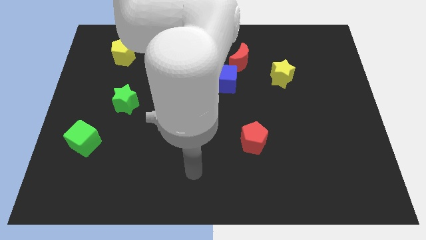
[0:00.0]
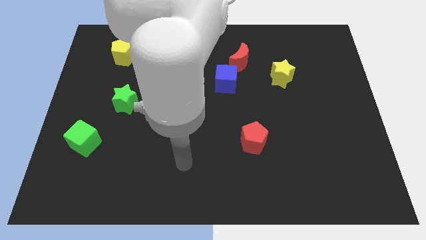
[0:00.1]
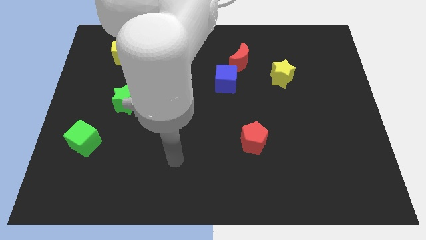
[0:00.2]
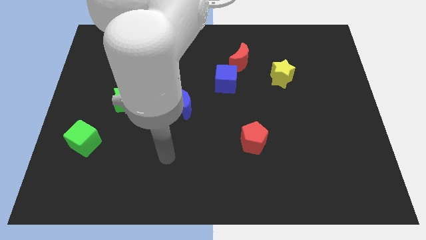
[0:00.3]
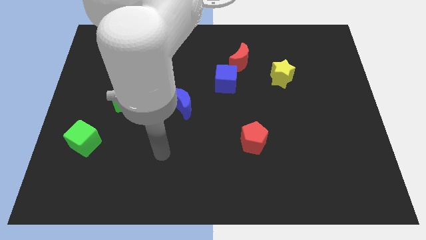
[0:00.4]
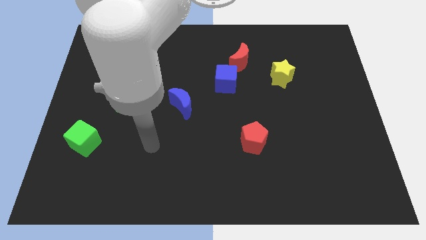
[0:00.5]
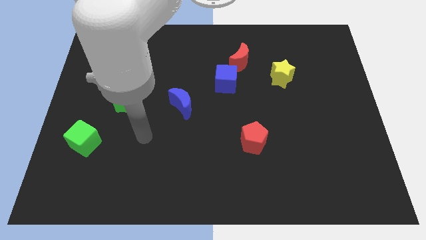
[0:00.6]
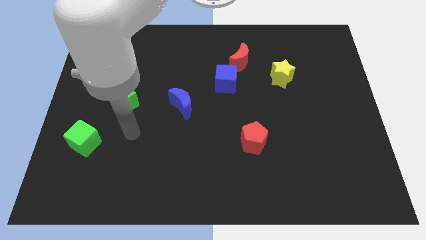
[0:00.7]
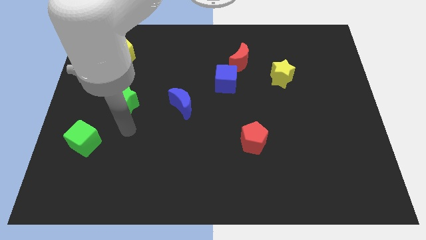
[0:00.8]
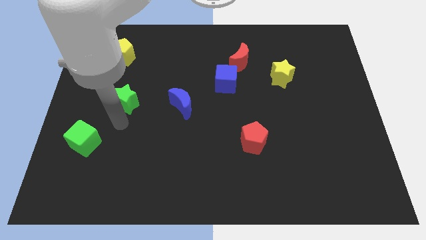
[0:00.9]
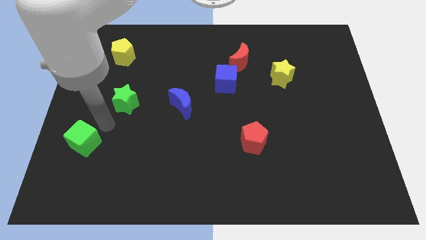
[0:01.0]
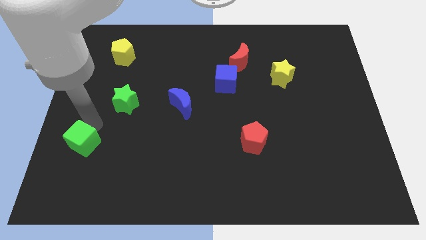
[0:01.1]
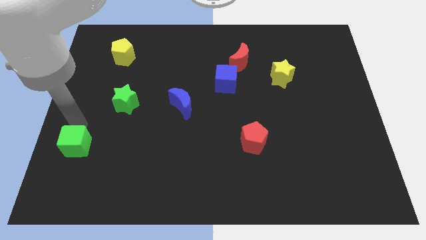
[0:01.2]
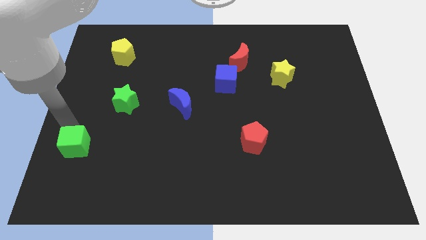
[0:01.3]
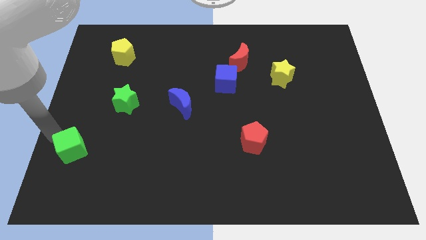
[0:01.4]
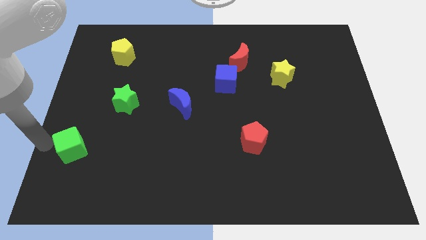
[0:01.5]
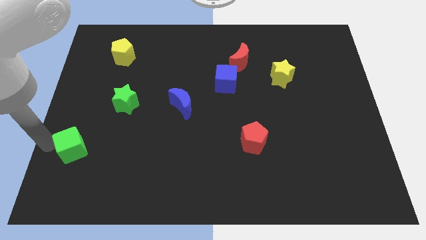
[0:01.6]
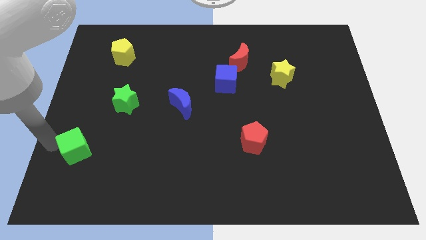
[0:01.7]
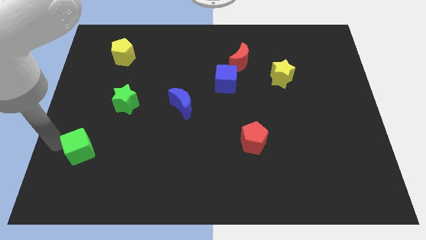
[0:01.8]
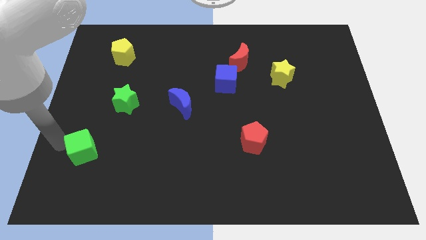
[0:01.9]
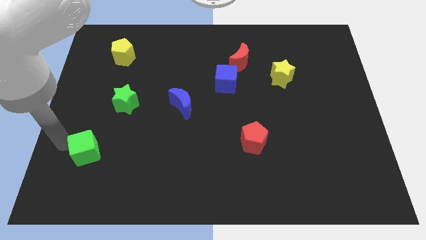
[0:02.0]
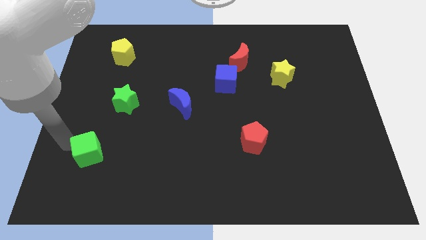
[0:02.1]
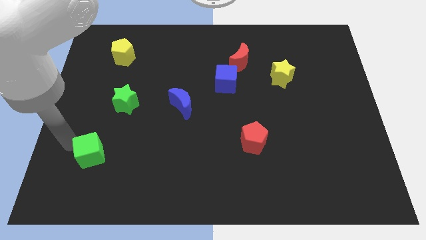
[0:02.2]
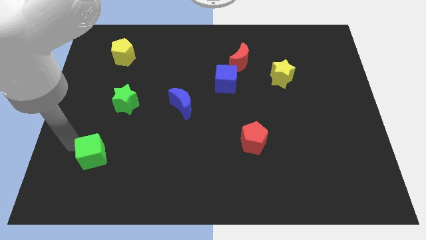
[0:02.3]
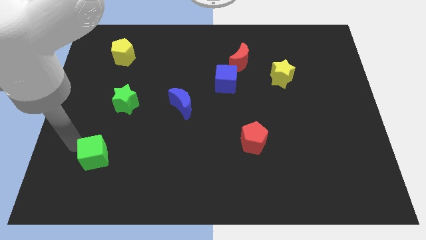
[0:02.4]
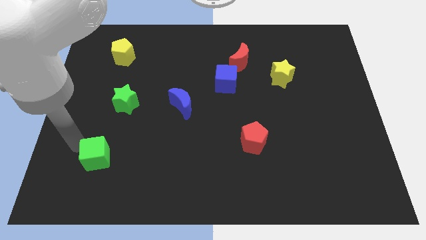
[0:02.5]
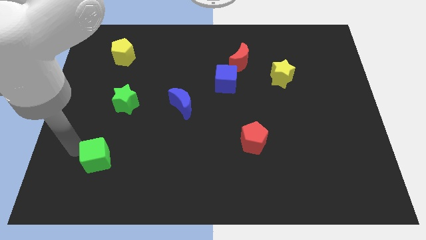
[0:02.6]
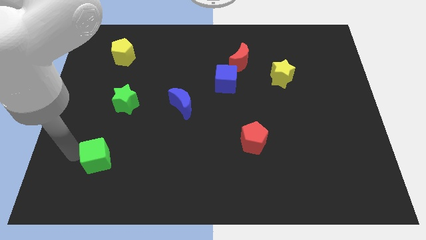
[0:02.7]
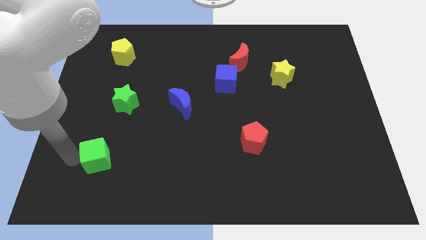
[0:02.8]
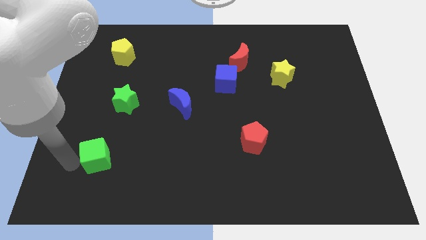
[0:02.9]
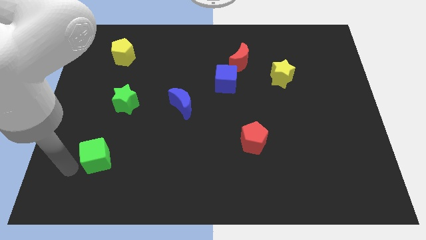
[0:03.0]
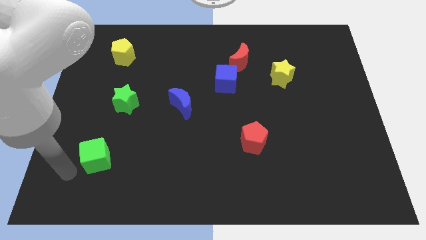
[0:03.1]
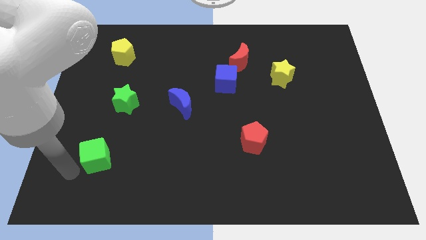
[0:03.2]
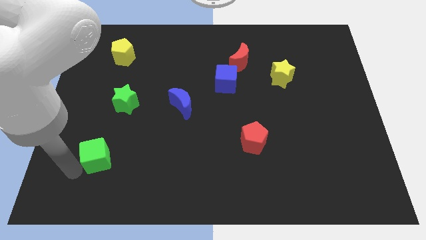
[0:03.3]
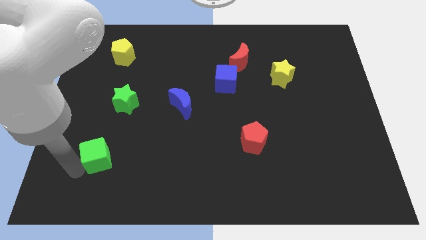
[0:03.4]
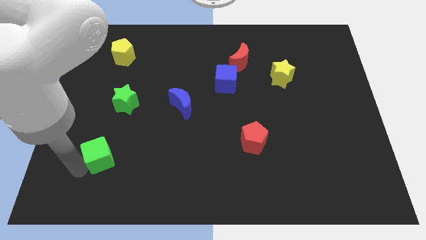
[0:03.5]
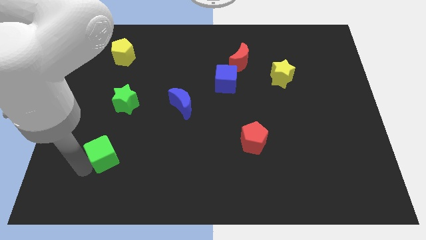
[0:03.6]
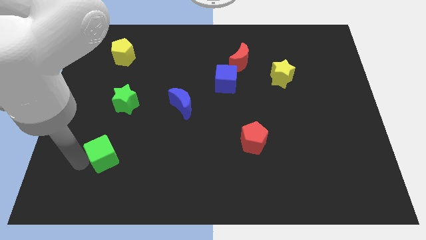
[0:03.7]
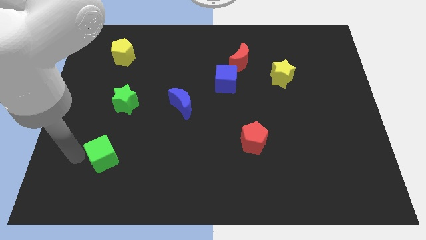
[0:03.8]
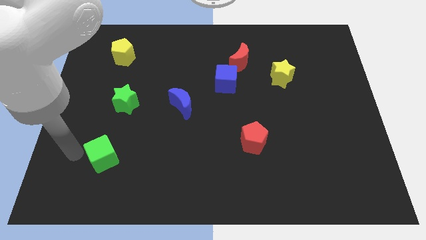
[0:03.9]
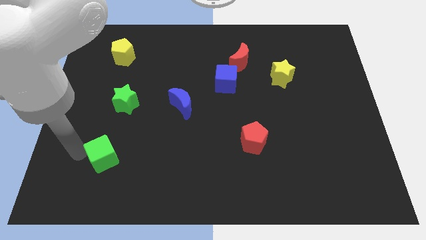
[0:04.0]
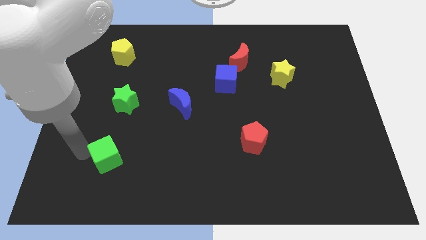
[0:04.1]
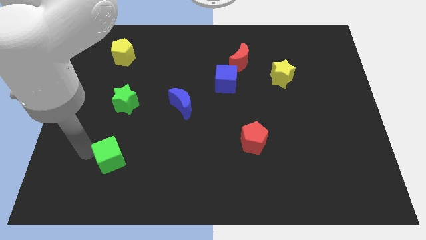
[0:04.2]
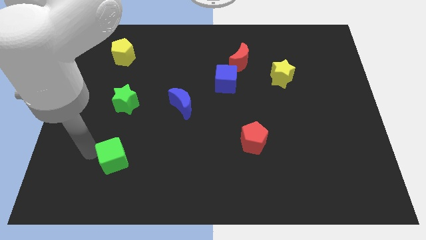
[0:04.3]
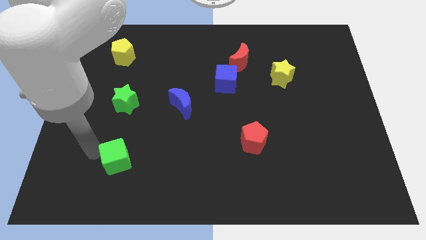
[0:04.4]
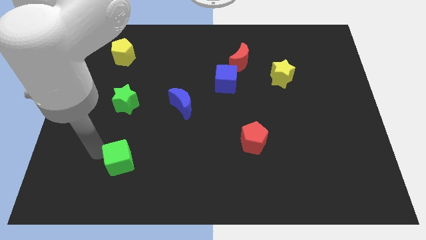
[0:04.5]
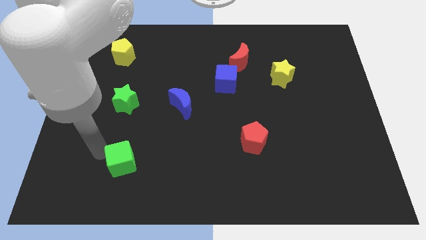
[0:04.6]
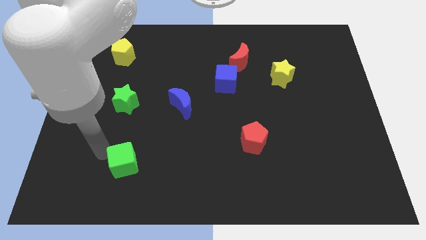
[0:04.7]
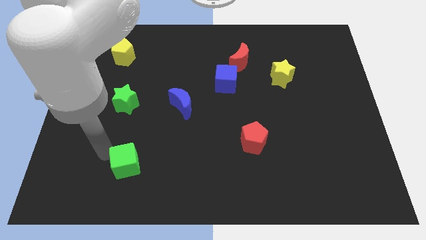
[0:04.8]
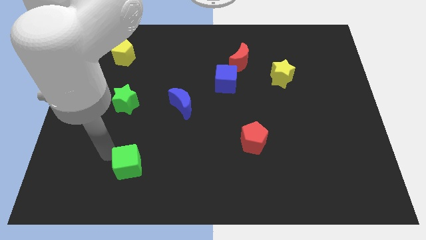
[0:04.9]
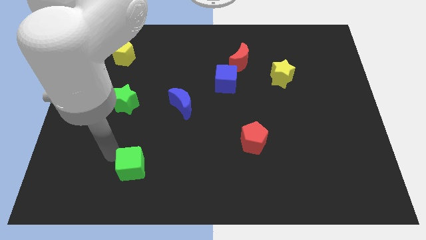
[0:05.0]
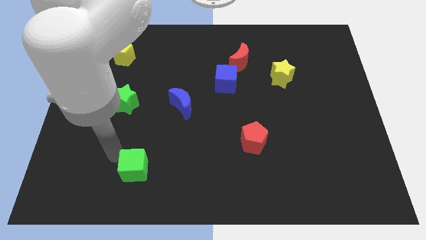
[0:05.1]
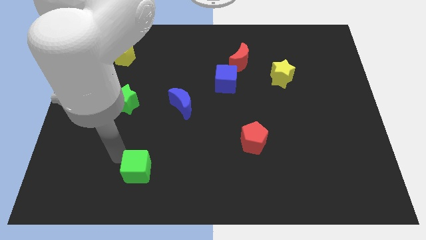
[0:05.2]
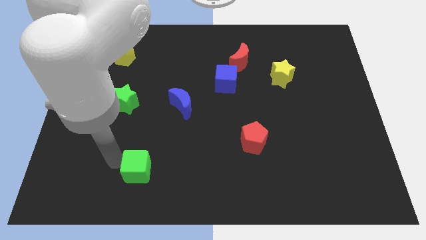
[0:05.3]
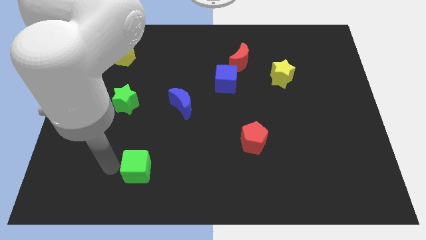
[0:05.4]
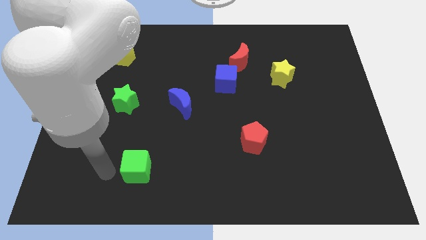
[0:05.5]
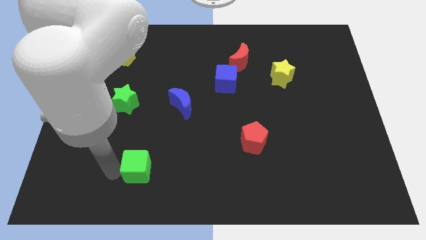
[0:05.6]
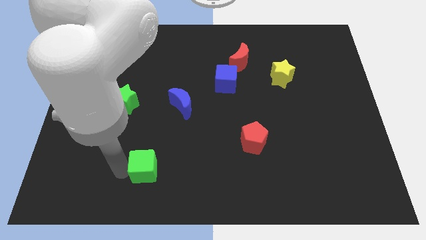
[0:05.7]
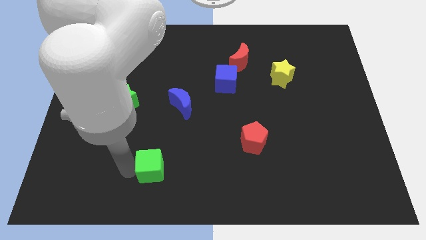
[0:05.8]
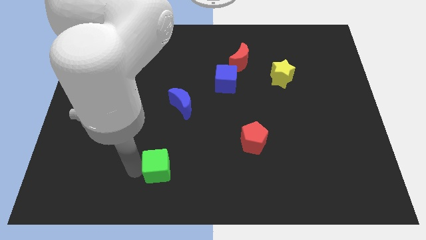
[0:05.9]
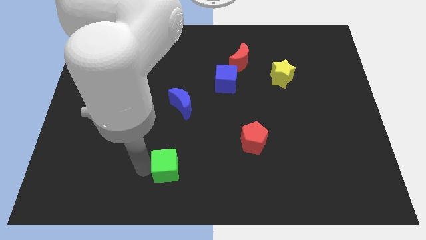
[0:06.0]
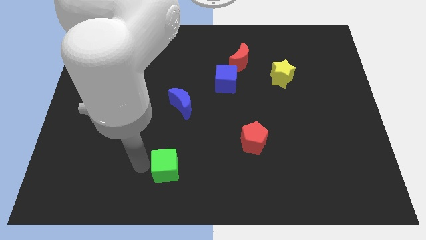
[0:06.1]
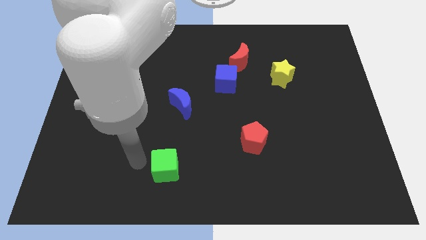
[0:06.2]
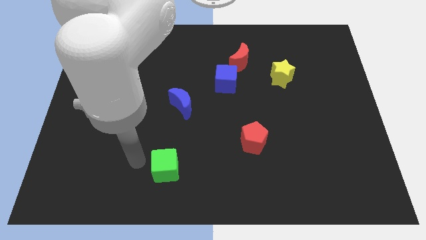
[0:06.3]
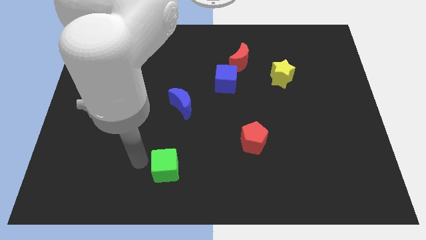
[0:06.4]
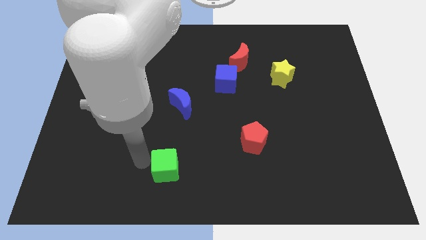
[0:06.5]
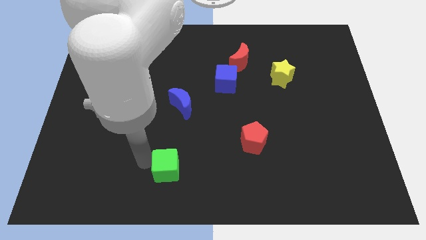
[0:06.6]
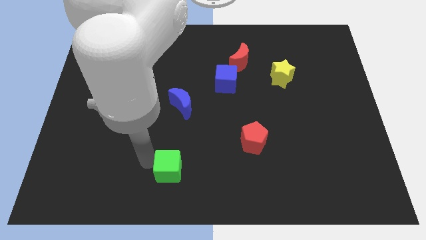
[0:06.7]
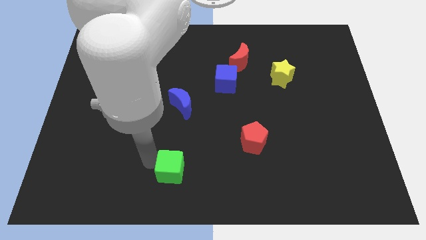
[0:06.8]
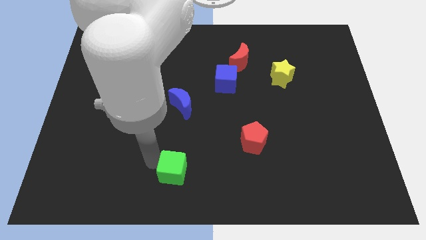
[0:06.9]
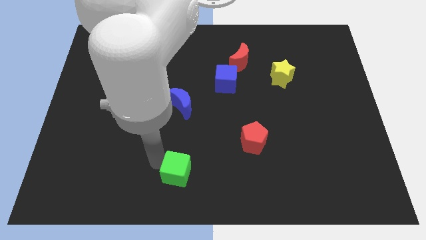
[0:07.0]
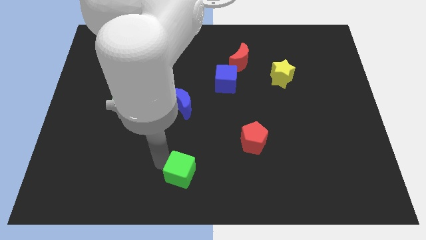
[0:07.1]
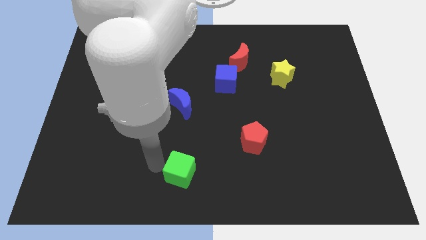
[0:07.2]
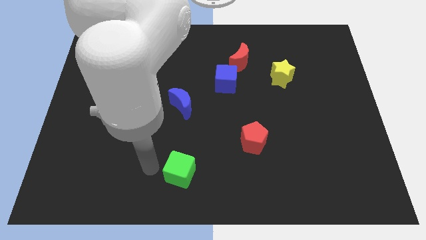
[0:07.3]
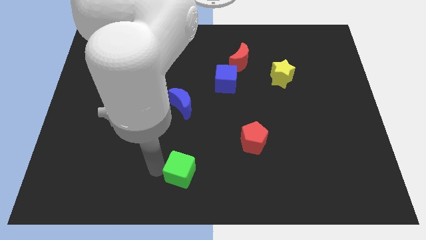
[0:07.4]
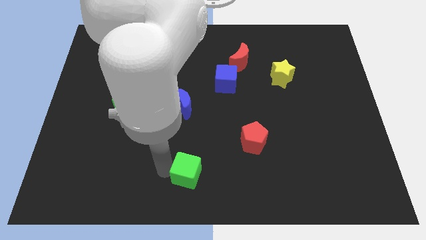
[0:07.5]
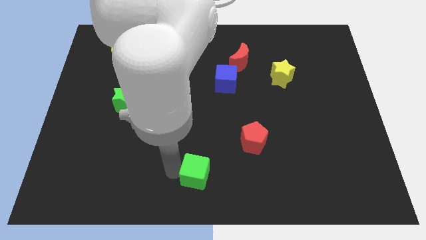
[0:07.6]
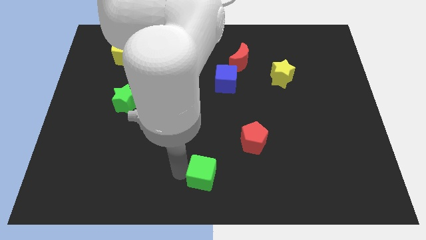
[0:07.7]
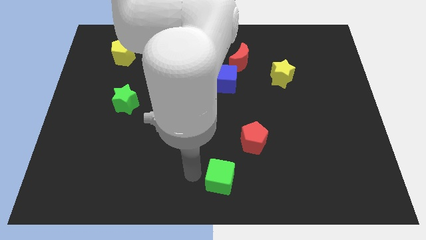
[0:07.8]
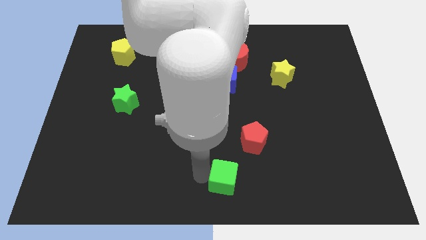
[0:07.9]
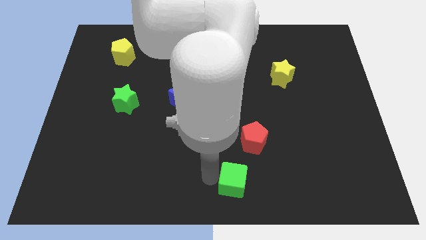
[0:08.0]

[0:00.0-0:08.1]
push the green cube below the red pentagon
